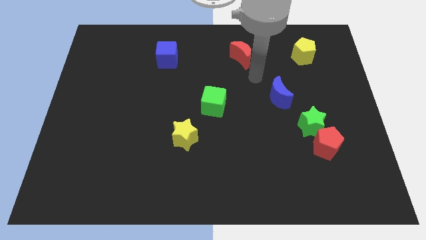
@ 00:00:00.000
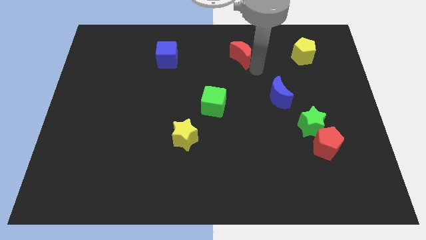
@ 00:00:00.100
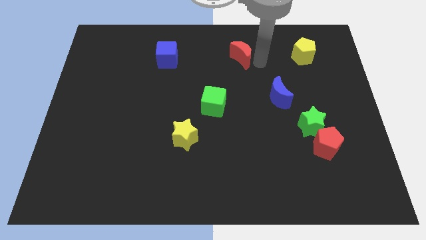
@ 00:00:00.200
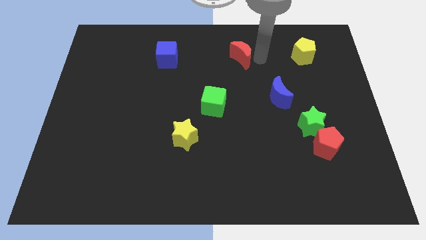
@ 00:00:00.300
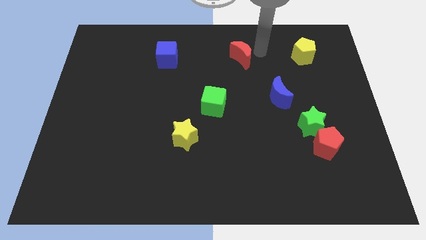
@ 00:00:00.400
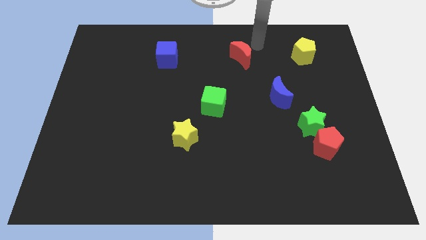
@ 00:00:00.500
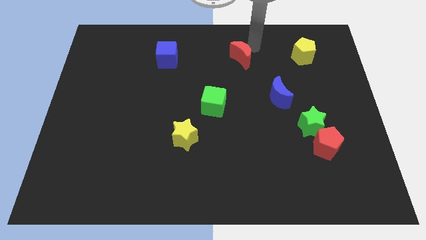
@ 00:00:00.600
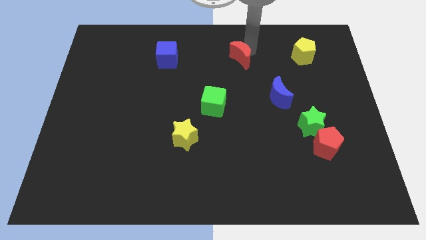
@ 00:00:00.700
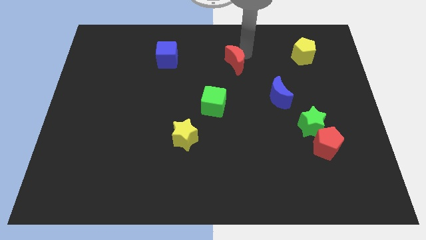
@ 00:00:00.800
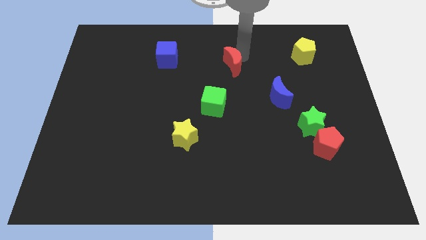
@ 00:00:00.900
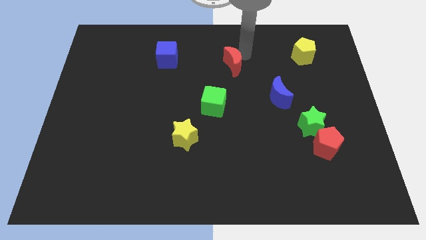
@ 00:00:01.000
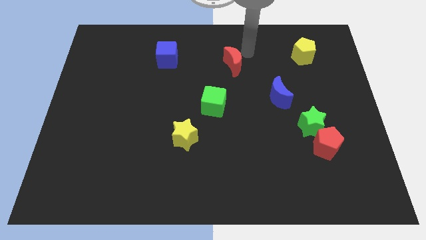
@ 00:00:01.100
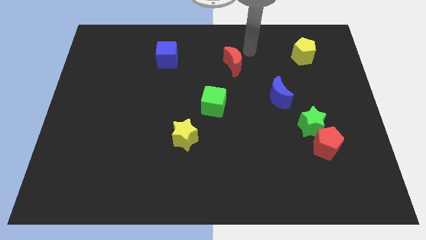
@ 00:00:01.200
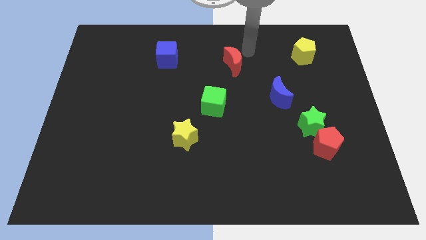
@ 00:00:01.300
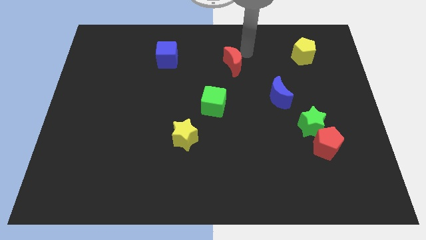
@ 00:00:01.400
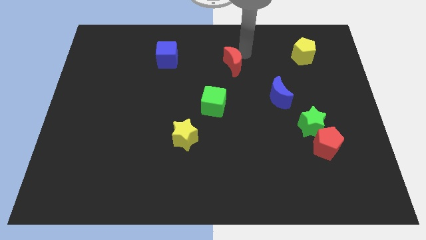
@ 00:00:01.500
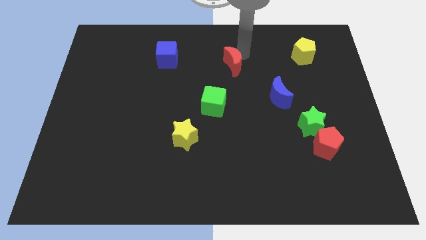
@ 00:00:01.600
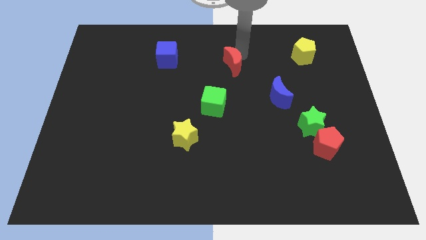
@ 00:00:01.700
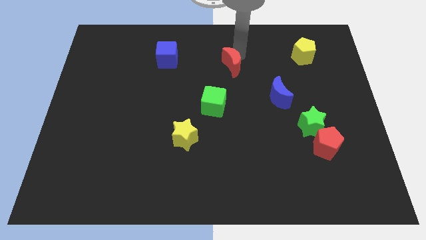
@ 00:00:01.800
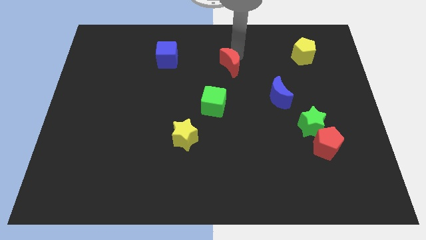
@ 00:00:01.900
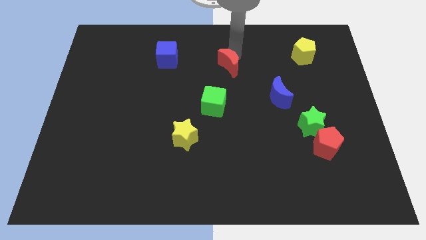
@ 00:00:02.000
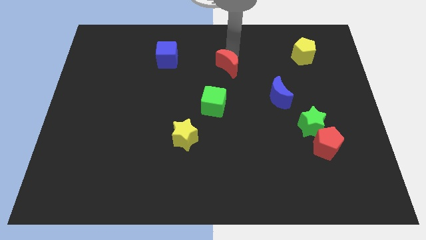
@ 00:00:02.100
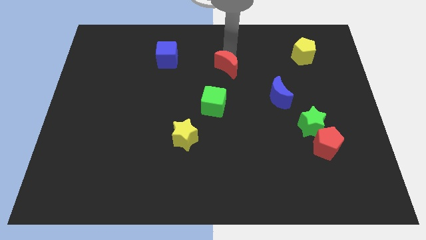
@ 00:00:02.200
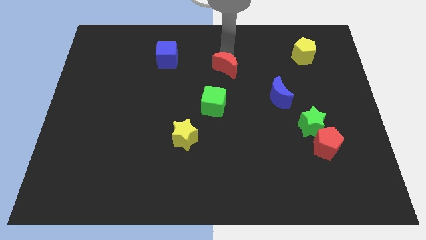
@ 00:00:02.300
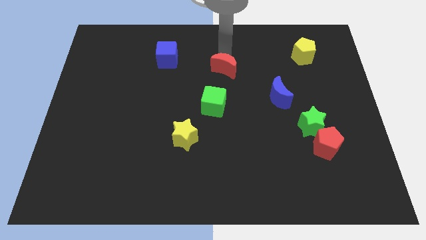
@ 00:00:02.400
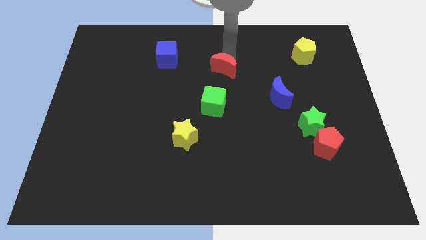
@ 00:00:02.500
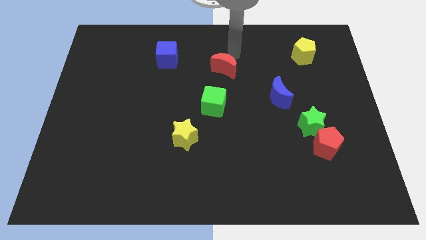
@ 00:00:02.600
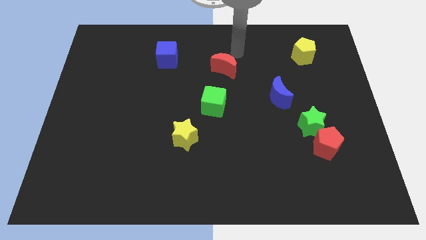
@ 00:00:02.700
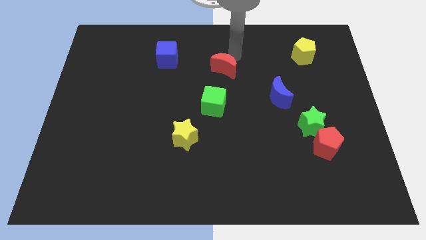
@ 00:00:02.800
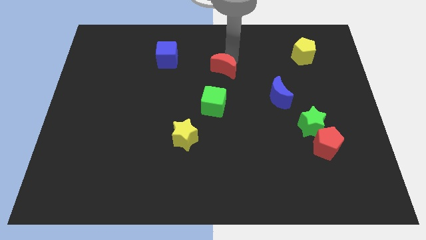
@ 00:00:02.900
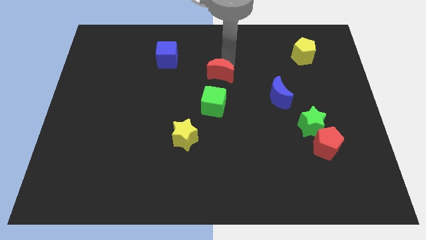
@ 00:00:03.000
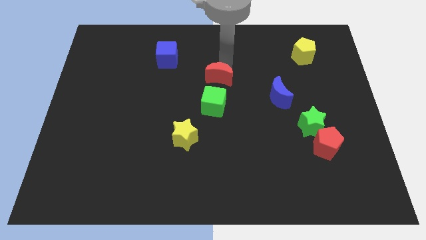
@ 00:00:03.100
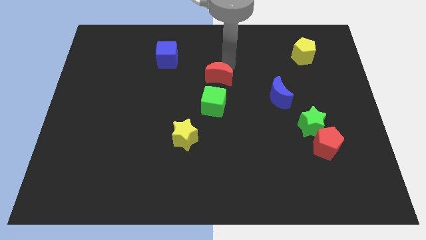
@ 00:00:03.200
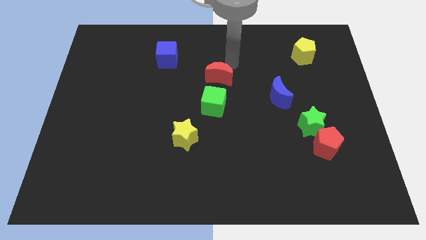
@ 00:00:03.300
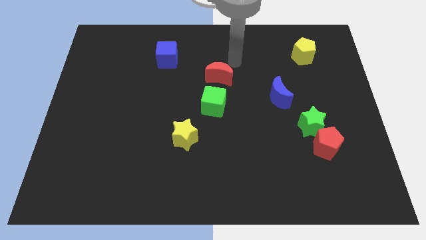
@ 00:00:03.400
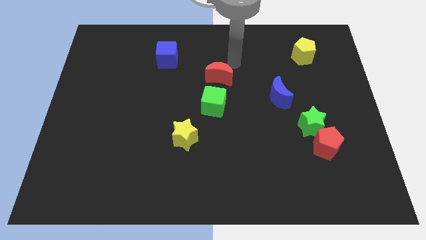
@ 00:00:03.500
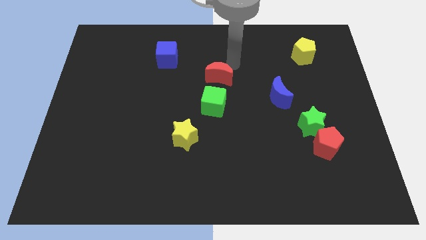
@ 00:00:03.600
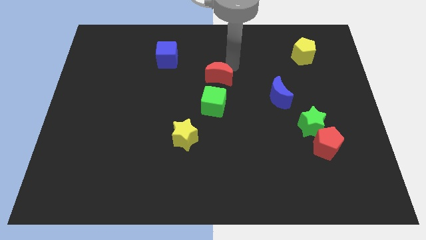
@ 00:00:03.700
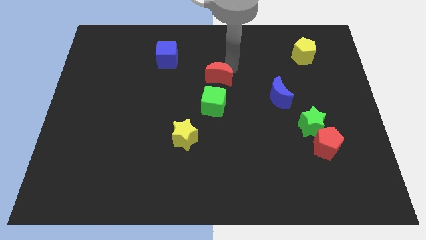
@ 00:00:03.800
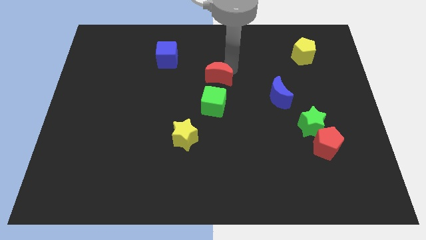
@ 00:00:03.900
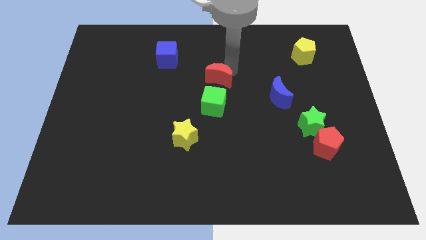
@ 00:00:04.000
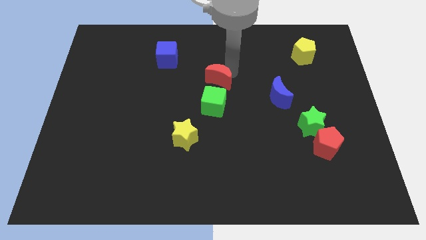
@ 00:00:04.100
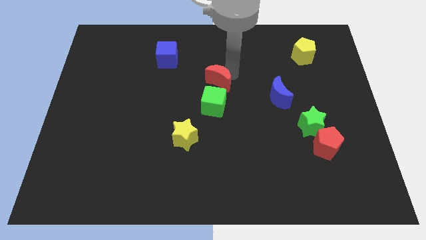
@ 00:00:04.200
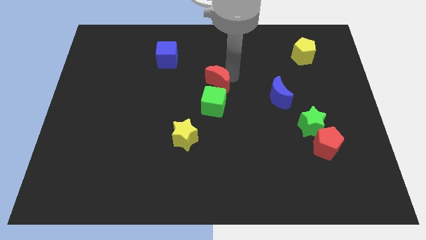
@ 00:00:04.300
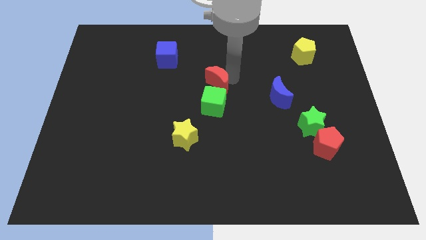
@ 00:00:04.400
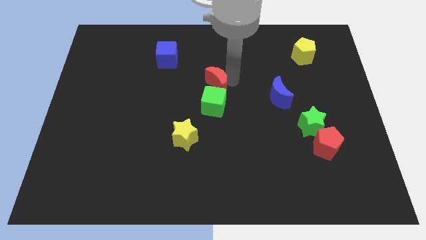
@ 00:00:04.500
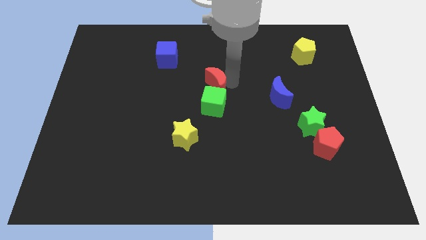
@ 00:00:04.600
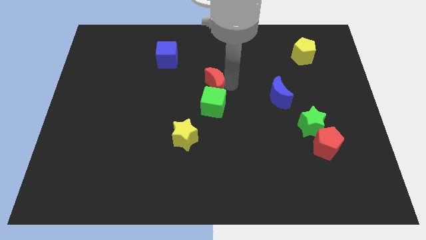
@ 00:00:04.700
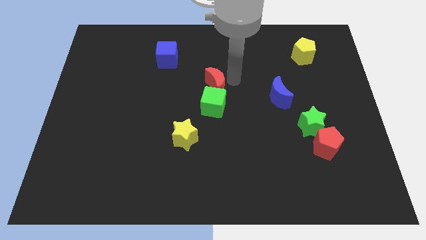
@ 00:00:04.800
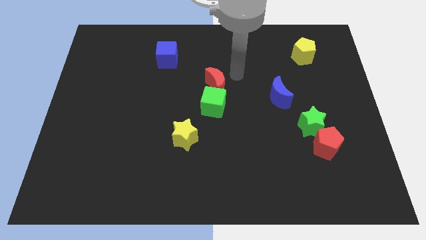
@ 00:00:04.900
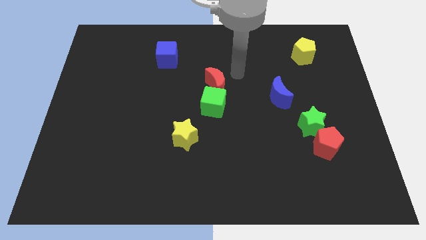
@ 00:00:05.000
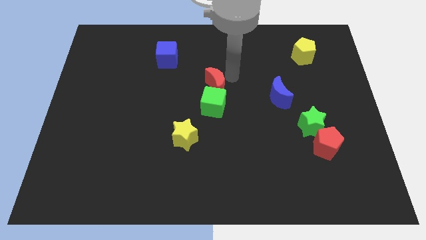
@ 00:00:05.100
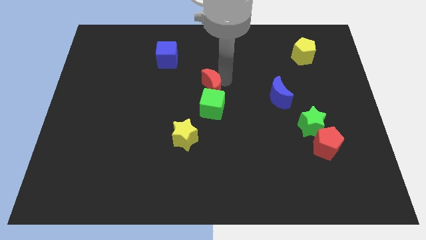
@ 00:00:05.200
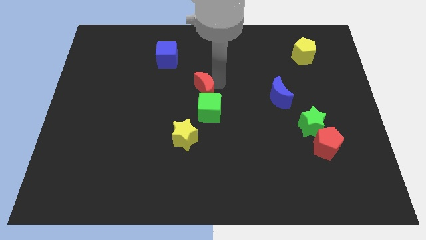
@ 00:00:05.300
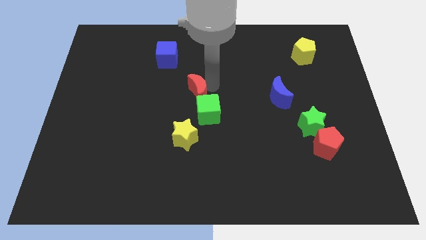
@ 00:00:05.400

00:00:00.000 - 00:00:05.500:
move the red moon above the yellow star

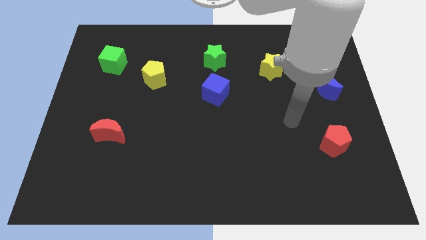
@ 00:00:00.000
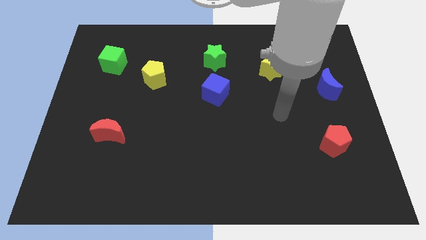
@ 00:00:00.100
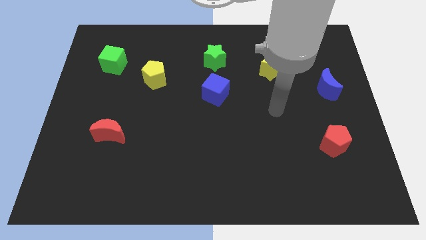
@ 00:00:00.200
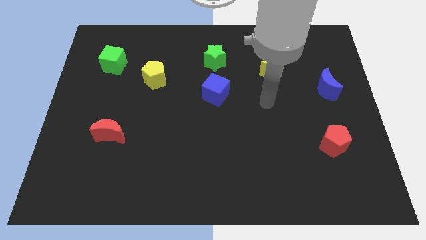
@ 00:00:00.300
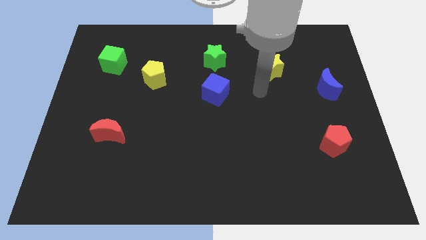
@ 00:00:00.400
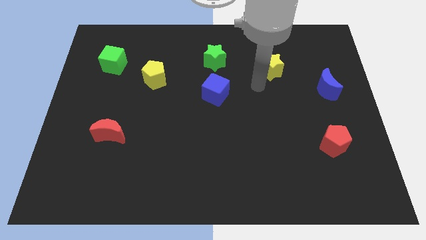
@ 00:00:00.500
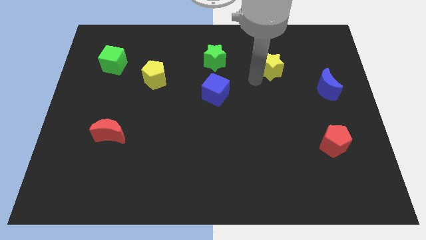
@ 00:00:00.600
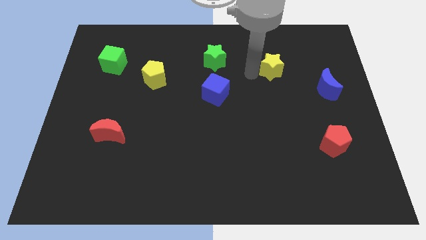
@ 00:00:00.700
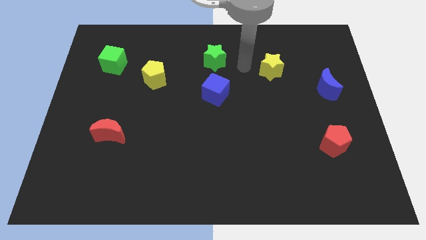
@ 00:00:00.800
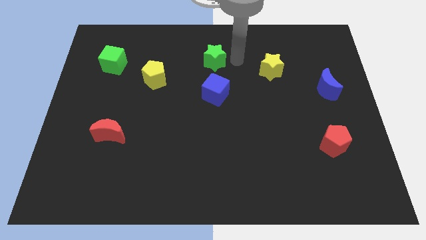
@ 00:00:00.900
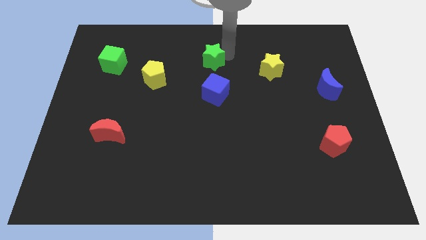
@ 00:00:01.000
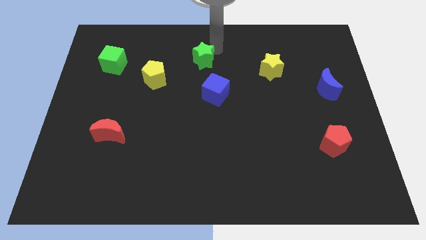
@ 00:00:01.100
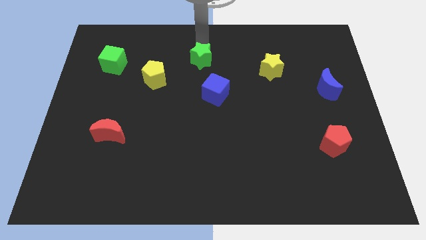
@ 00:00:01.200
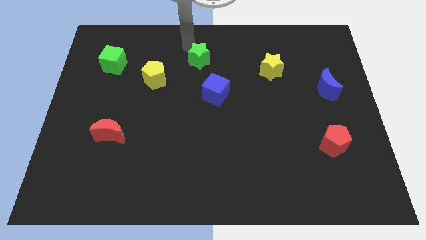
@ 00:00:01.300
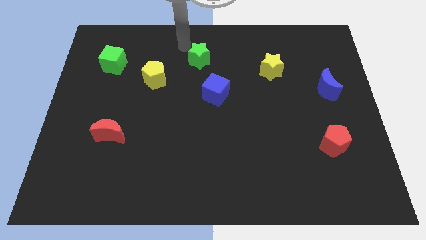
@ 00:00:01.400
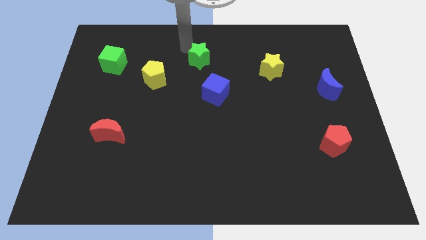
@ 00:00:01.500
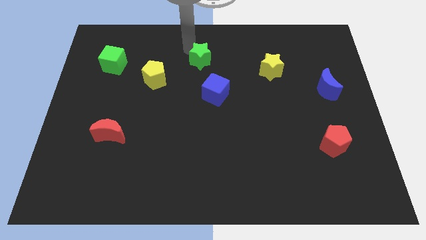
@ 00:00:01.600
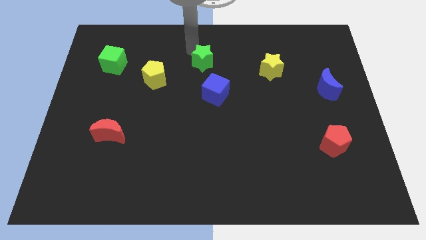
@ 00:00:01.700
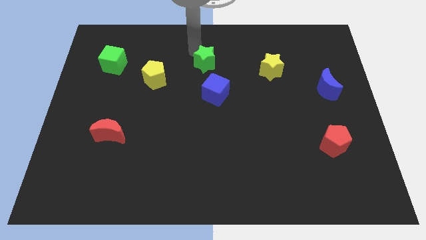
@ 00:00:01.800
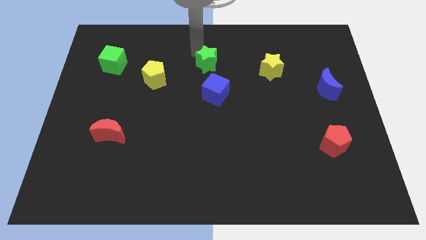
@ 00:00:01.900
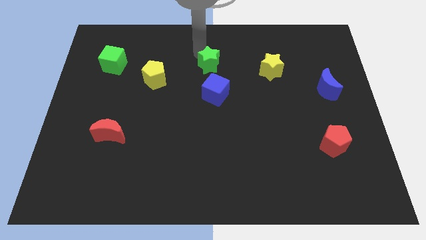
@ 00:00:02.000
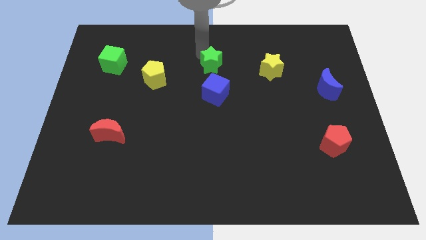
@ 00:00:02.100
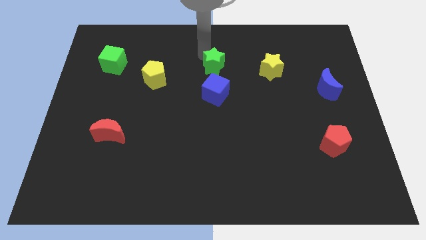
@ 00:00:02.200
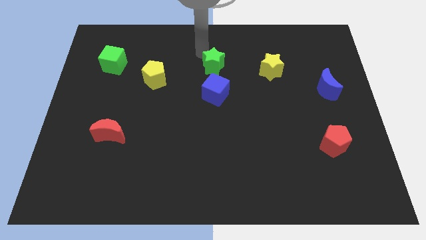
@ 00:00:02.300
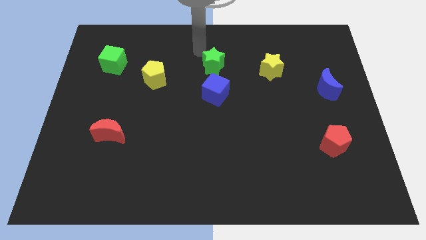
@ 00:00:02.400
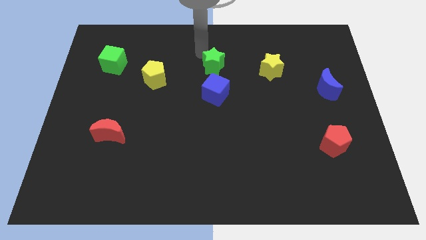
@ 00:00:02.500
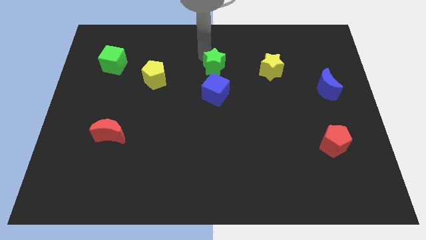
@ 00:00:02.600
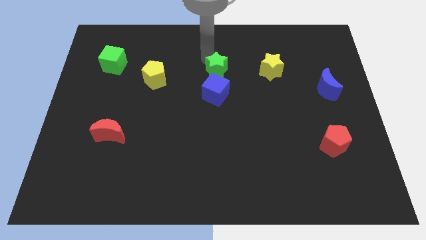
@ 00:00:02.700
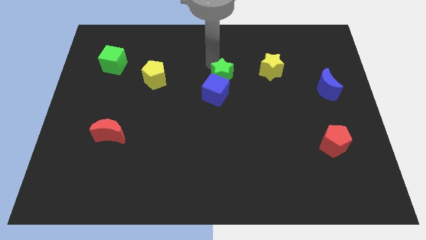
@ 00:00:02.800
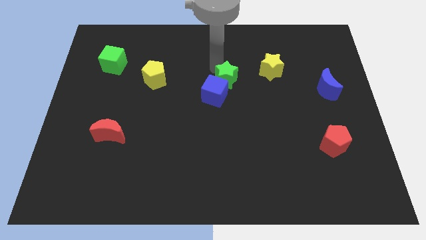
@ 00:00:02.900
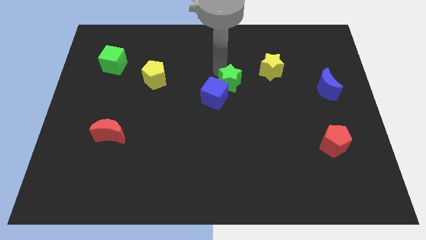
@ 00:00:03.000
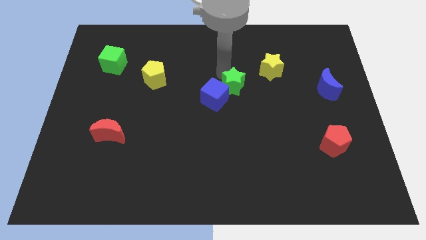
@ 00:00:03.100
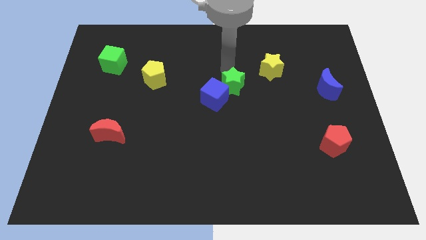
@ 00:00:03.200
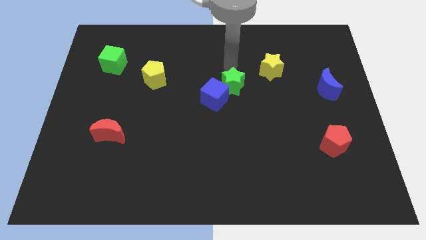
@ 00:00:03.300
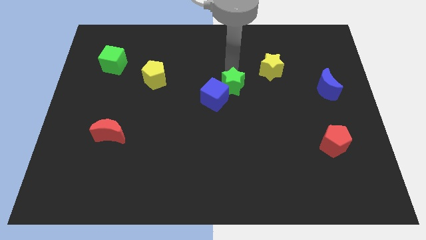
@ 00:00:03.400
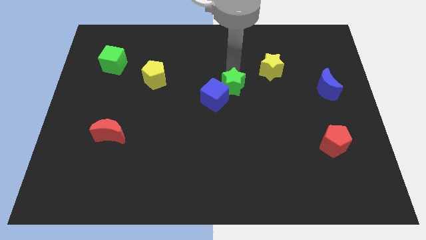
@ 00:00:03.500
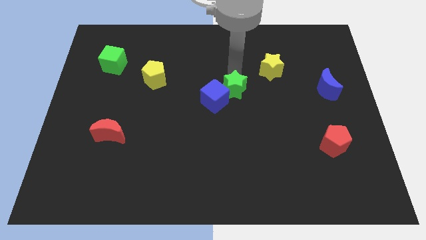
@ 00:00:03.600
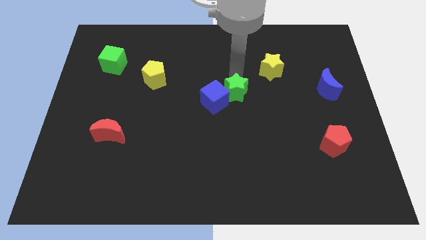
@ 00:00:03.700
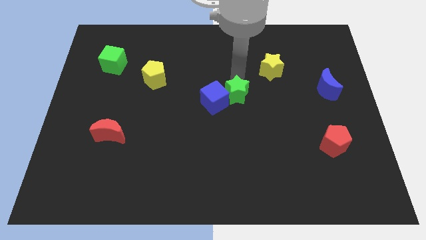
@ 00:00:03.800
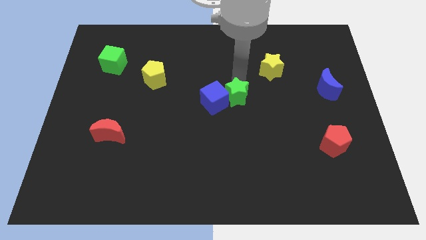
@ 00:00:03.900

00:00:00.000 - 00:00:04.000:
put the green star to the bottom right of the blue cube
